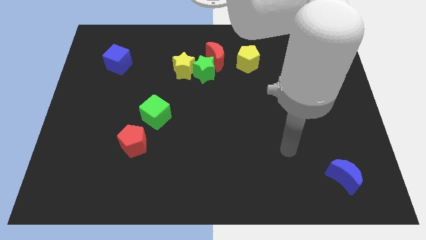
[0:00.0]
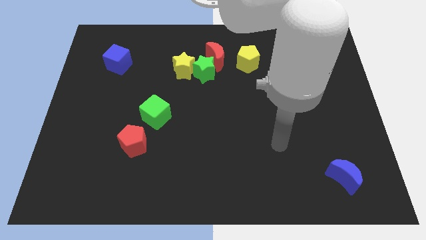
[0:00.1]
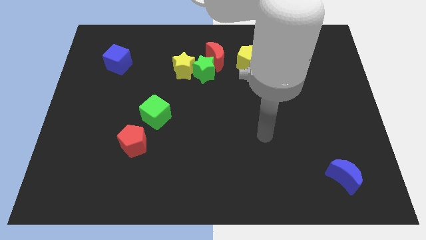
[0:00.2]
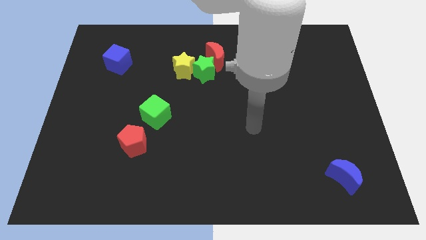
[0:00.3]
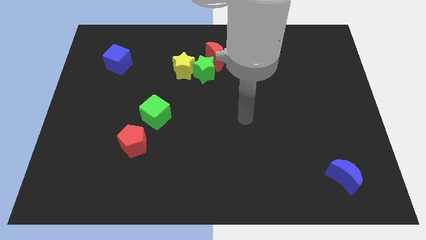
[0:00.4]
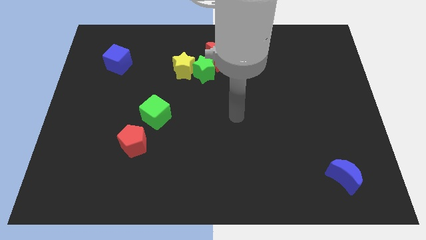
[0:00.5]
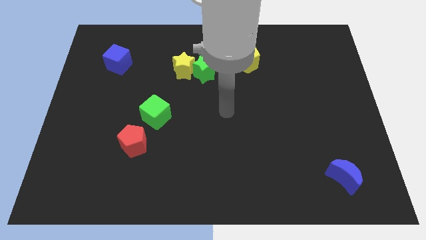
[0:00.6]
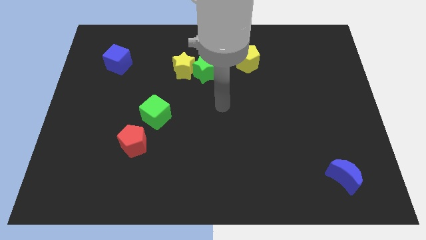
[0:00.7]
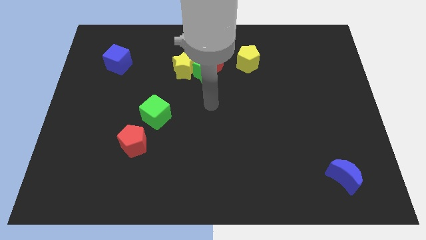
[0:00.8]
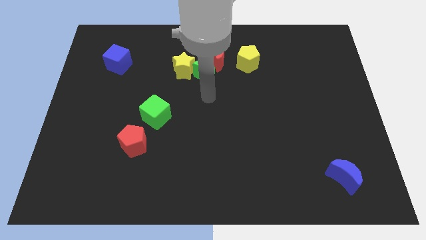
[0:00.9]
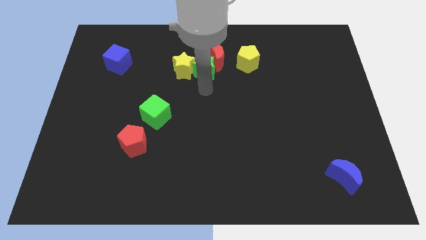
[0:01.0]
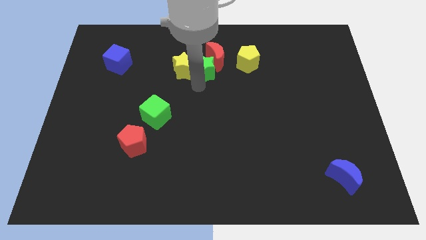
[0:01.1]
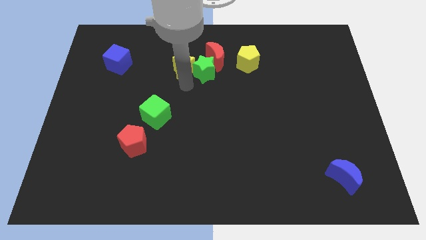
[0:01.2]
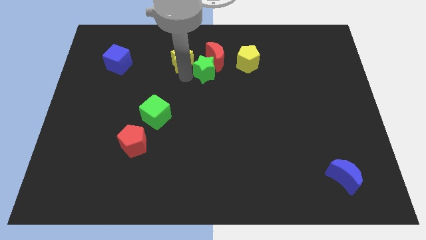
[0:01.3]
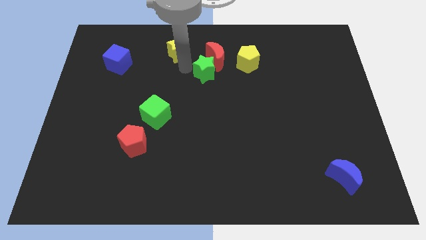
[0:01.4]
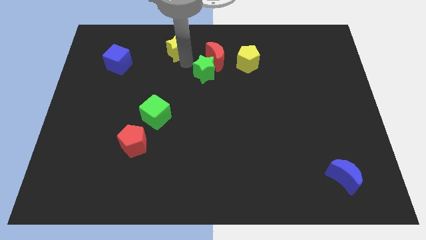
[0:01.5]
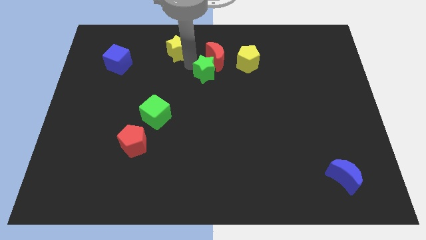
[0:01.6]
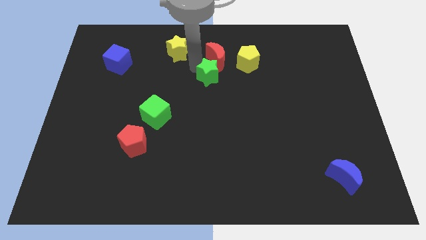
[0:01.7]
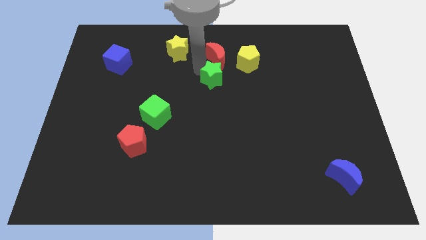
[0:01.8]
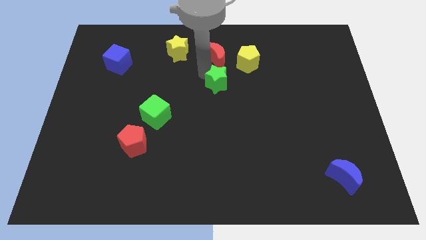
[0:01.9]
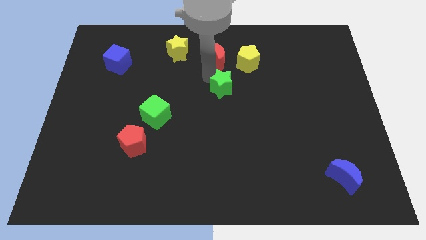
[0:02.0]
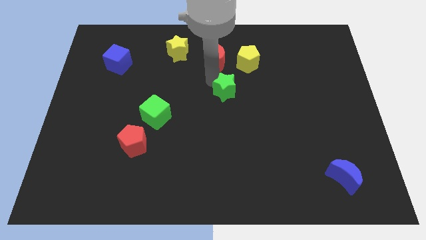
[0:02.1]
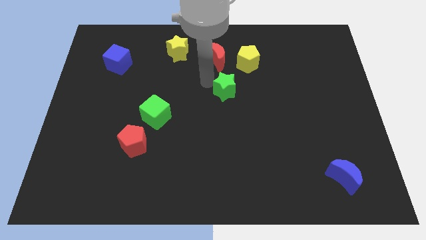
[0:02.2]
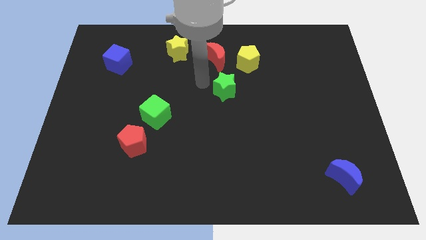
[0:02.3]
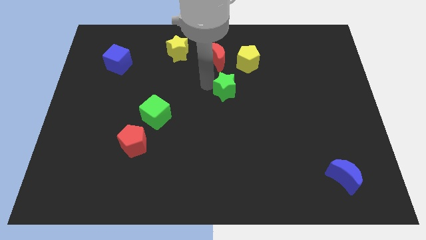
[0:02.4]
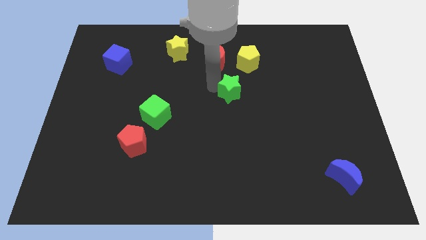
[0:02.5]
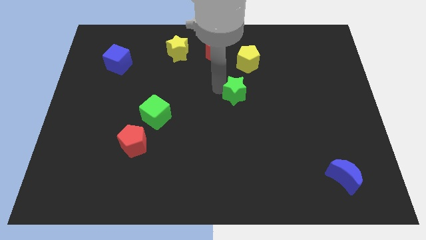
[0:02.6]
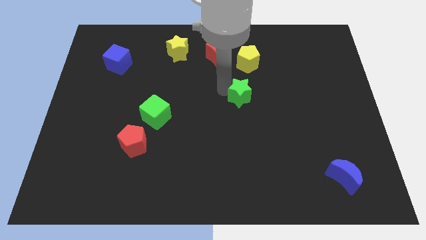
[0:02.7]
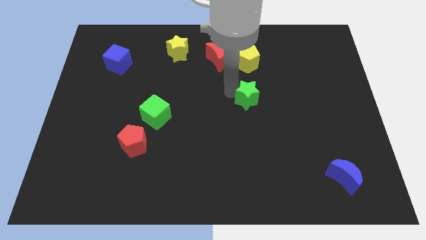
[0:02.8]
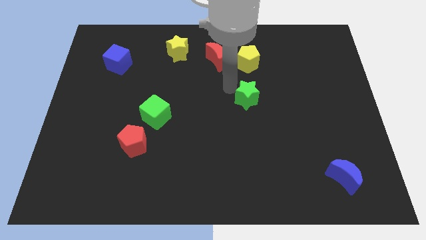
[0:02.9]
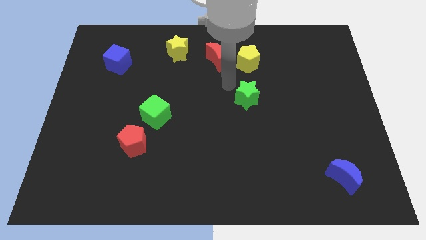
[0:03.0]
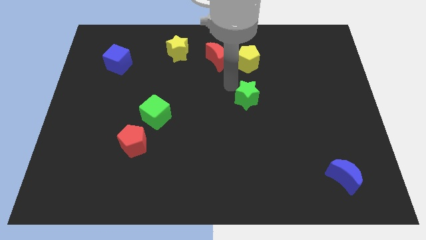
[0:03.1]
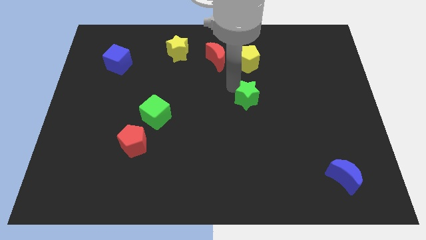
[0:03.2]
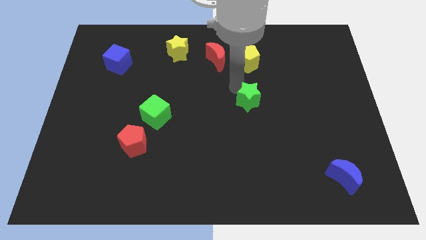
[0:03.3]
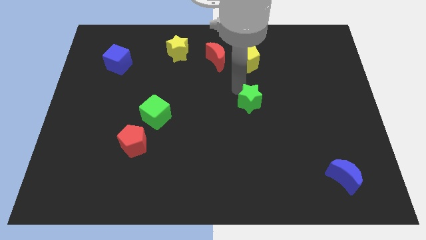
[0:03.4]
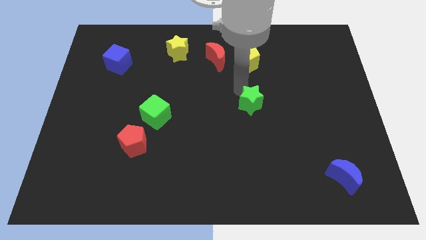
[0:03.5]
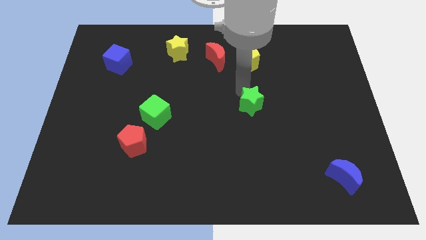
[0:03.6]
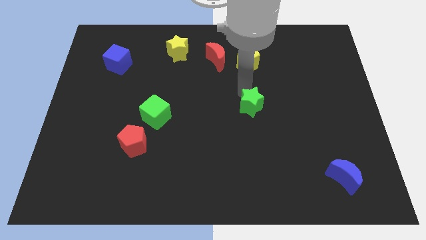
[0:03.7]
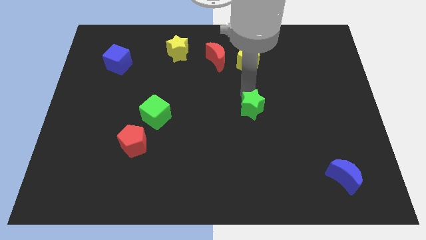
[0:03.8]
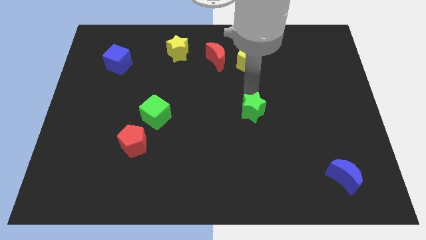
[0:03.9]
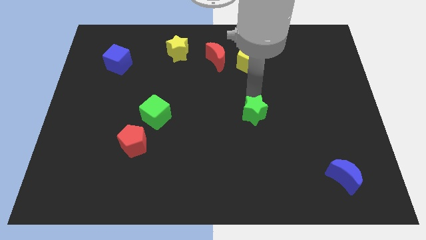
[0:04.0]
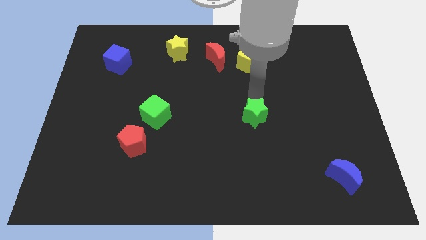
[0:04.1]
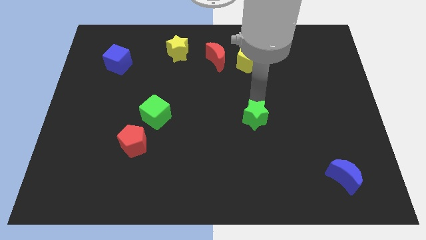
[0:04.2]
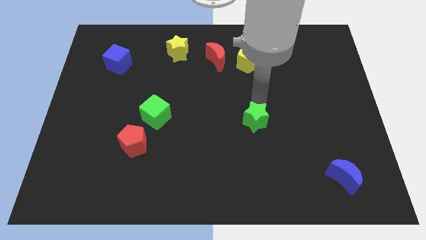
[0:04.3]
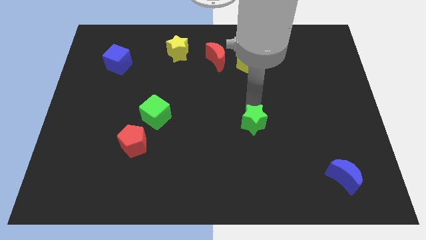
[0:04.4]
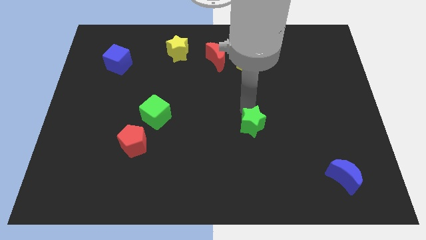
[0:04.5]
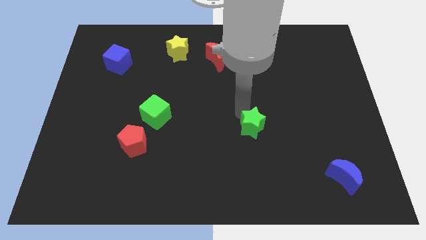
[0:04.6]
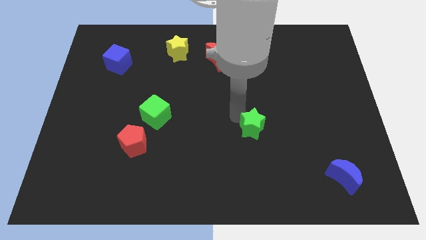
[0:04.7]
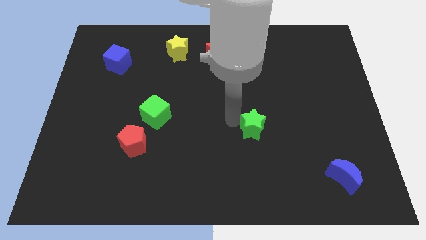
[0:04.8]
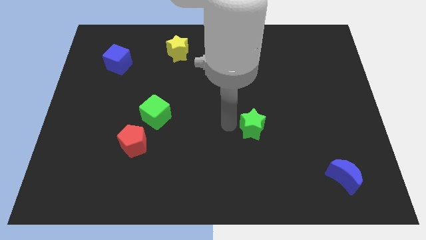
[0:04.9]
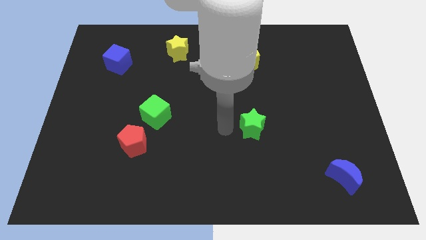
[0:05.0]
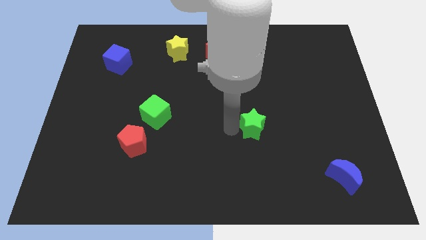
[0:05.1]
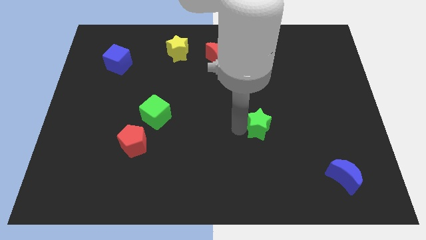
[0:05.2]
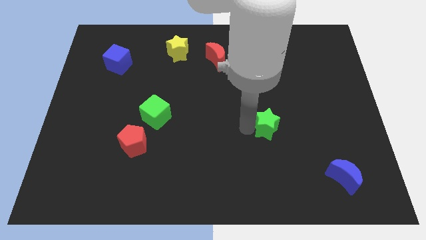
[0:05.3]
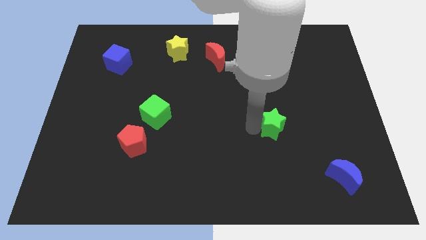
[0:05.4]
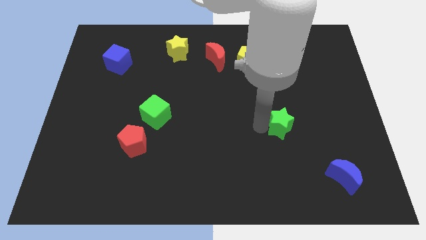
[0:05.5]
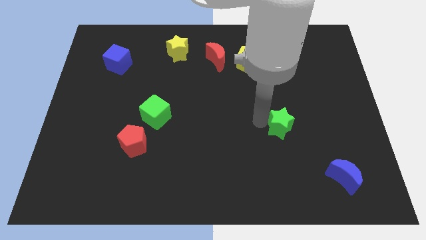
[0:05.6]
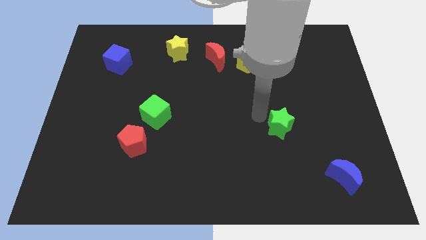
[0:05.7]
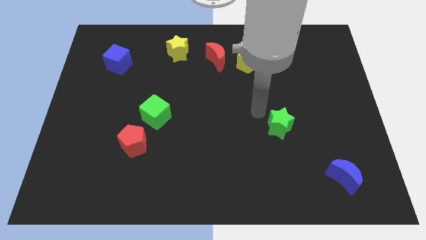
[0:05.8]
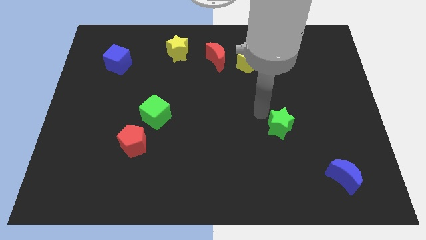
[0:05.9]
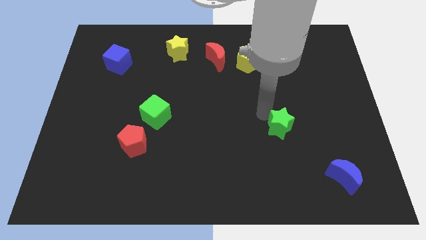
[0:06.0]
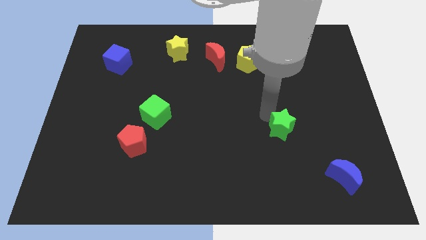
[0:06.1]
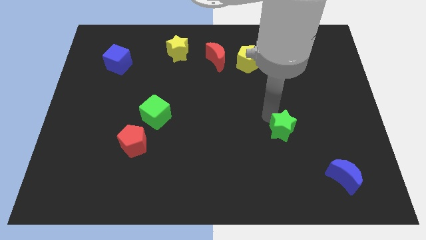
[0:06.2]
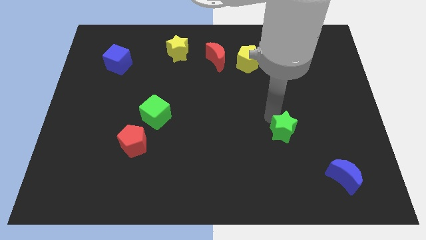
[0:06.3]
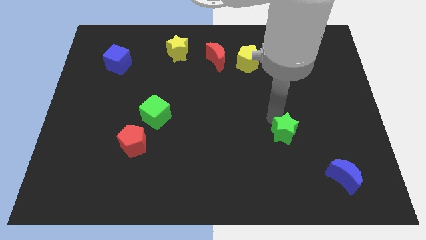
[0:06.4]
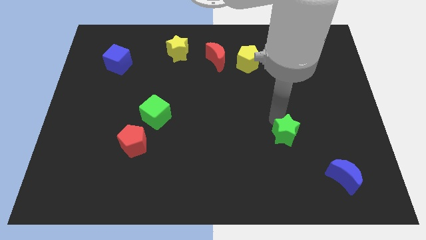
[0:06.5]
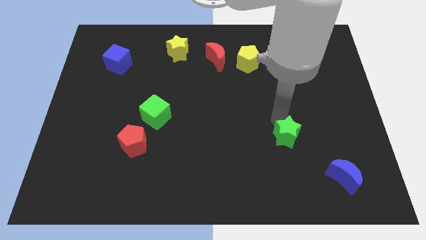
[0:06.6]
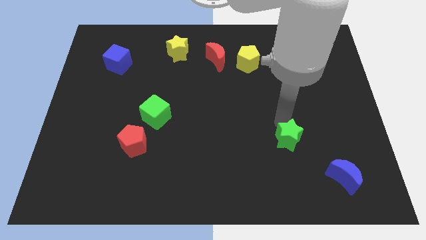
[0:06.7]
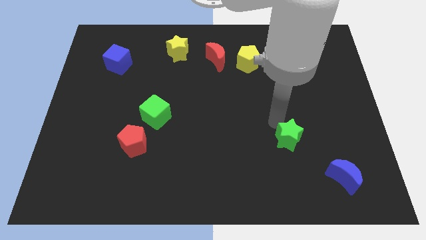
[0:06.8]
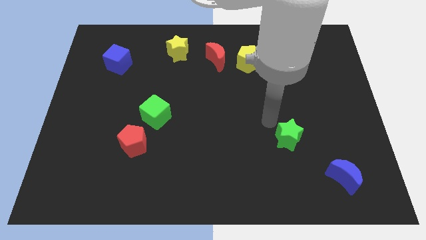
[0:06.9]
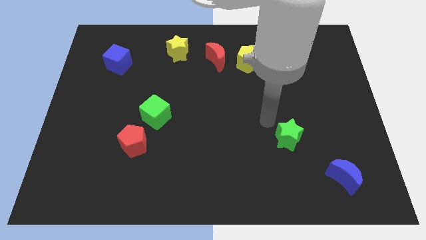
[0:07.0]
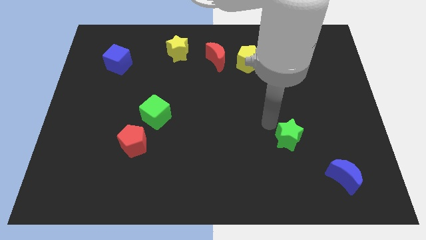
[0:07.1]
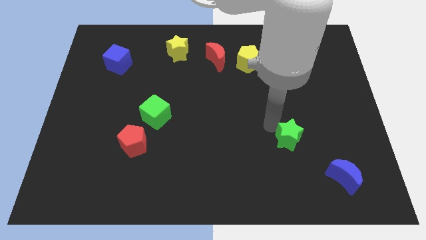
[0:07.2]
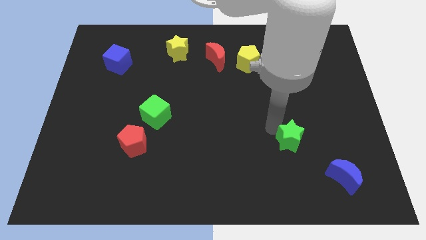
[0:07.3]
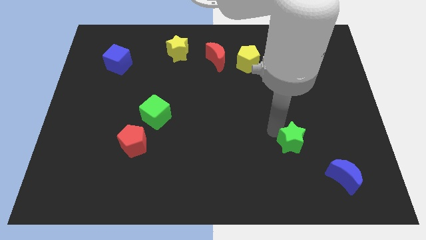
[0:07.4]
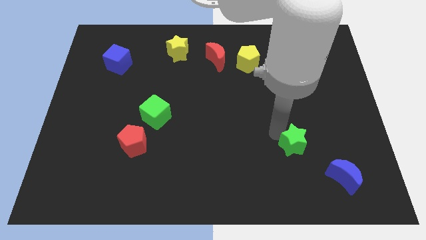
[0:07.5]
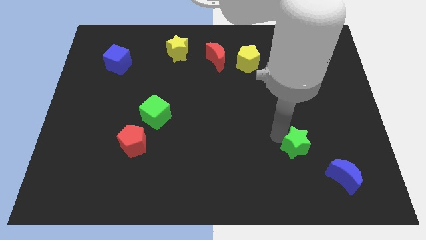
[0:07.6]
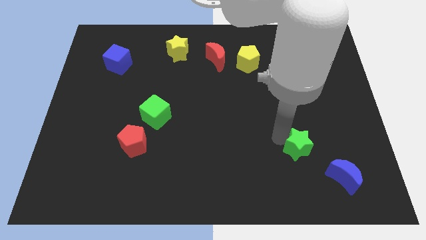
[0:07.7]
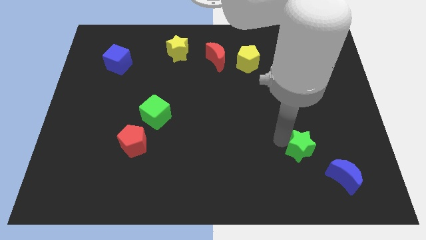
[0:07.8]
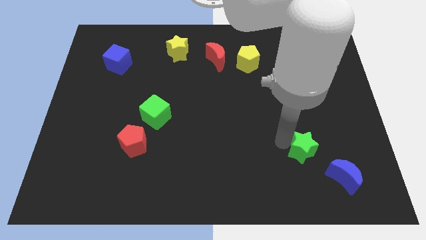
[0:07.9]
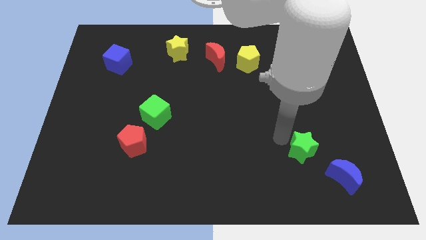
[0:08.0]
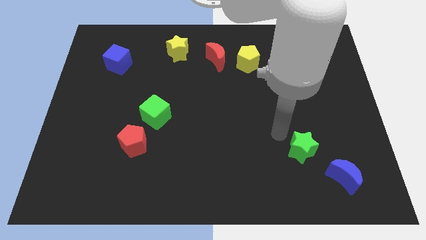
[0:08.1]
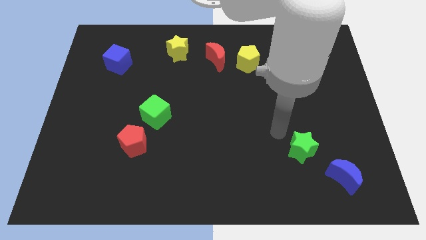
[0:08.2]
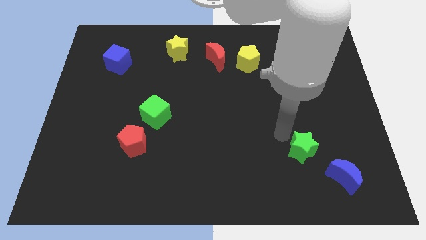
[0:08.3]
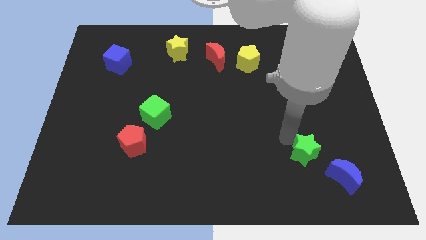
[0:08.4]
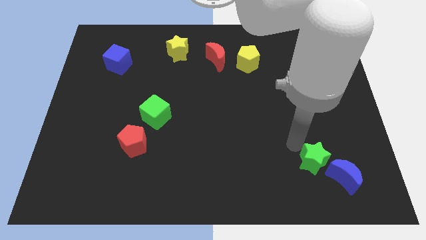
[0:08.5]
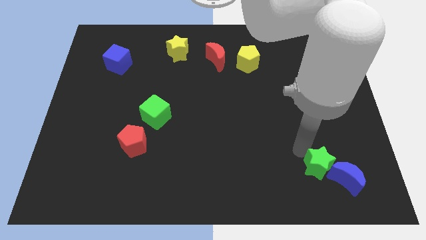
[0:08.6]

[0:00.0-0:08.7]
slide the green star close to the blue moon
